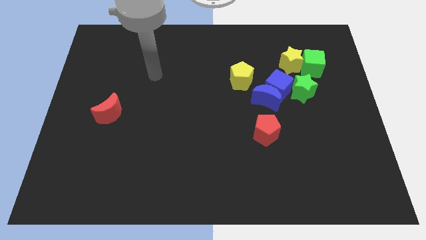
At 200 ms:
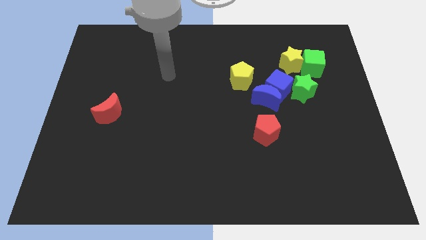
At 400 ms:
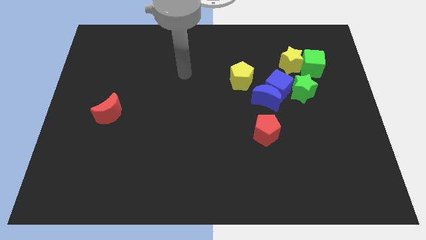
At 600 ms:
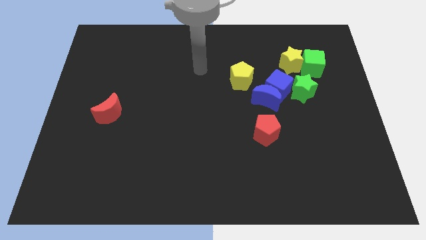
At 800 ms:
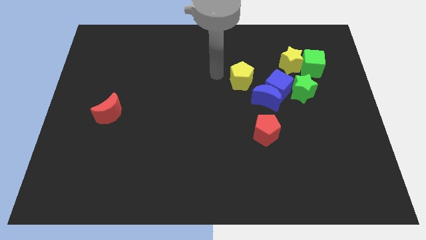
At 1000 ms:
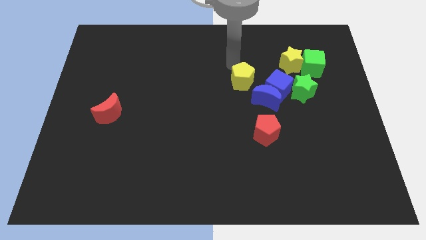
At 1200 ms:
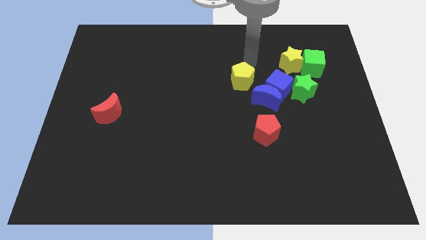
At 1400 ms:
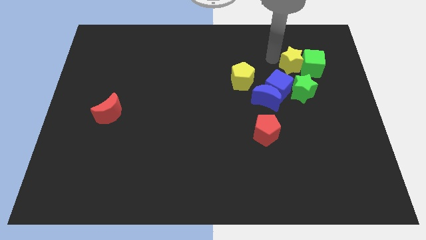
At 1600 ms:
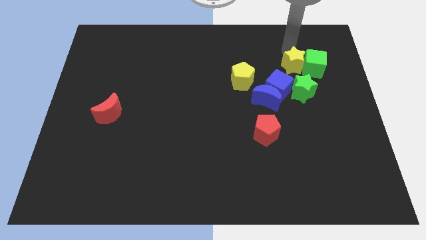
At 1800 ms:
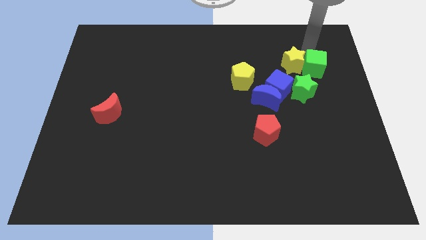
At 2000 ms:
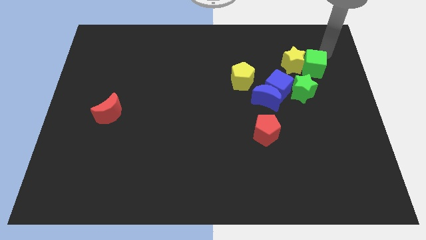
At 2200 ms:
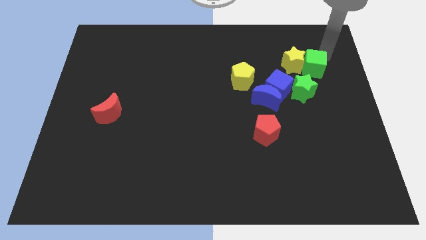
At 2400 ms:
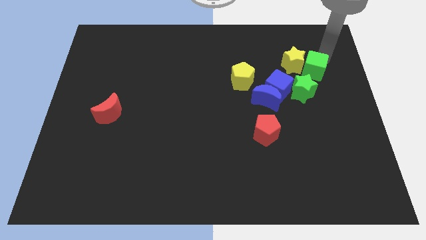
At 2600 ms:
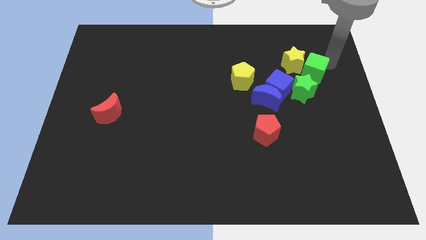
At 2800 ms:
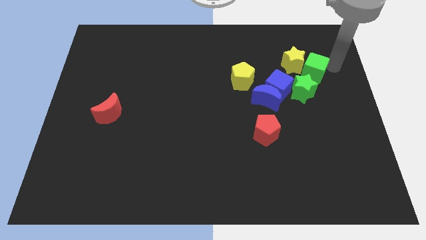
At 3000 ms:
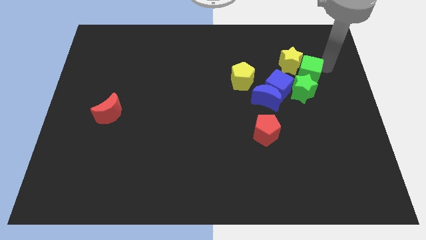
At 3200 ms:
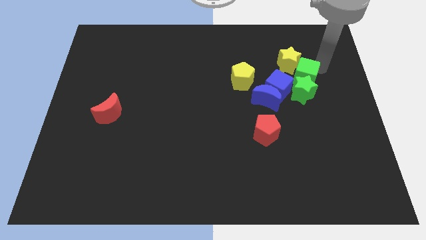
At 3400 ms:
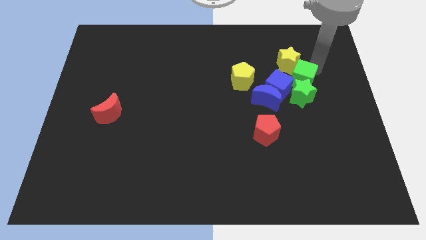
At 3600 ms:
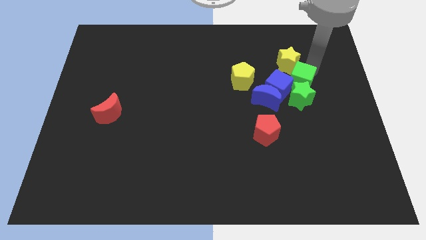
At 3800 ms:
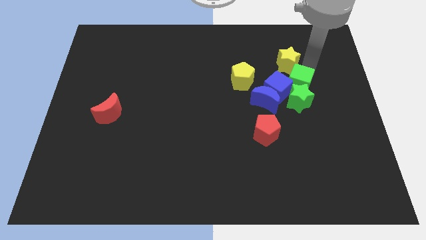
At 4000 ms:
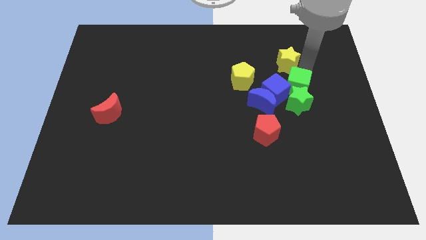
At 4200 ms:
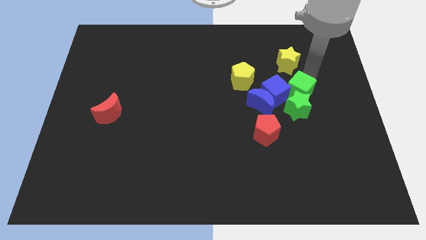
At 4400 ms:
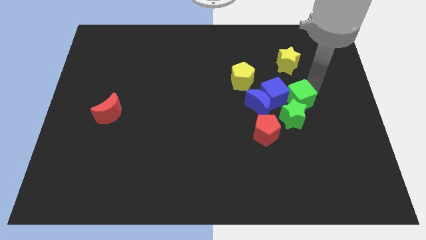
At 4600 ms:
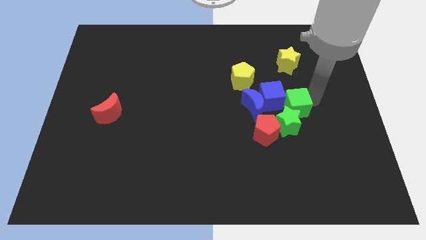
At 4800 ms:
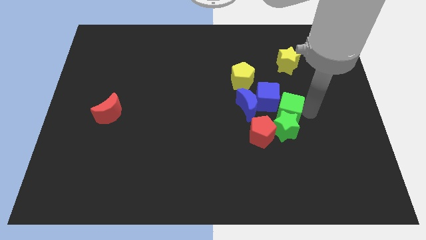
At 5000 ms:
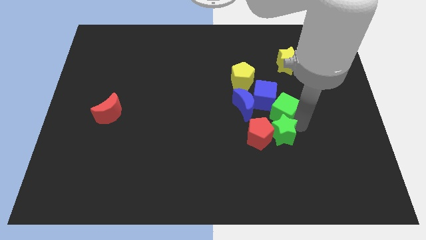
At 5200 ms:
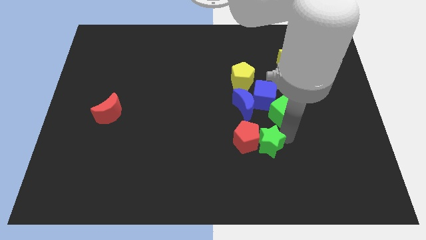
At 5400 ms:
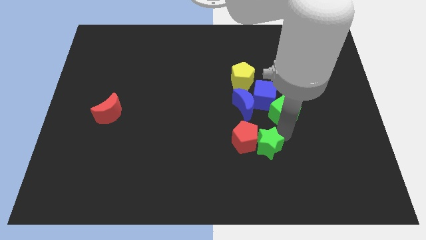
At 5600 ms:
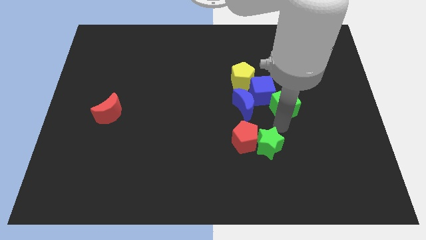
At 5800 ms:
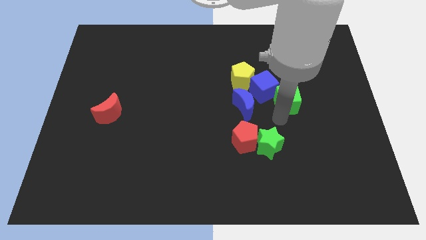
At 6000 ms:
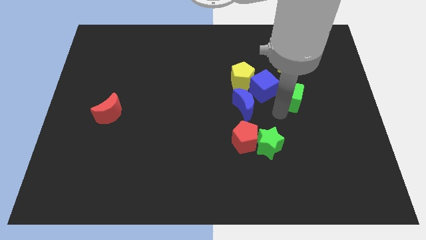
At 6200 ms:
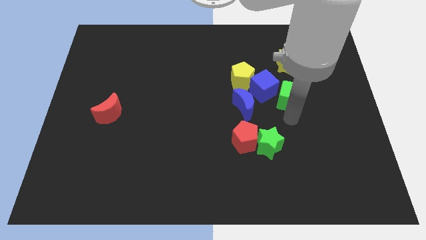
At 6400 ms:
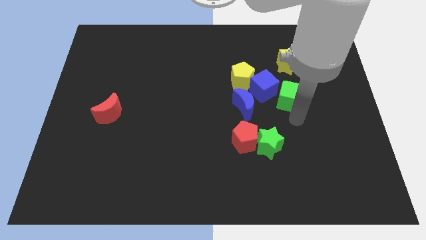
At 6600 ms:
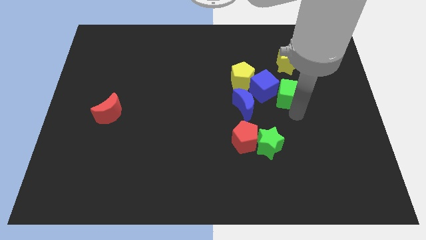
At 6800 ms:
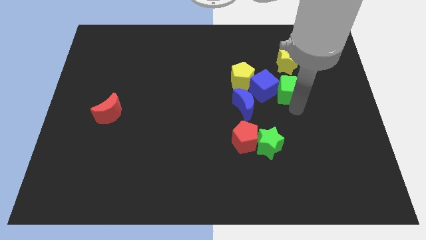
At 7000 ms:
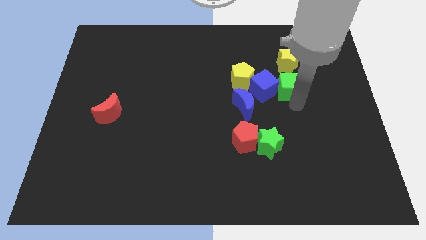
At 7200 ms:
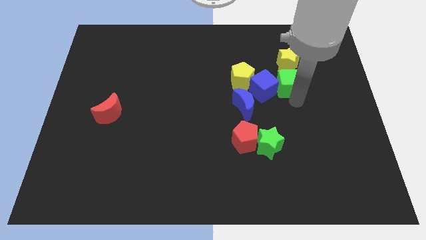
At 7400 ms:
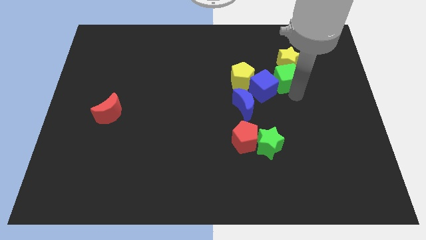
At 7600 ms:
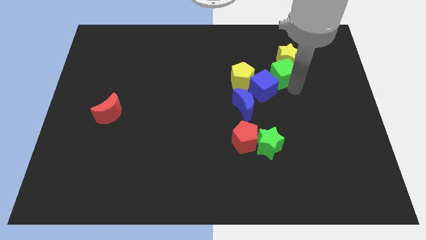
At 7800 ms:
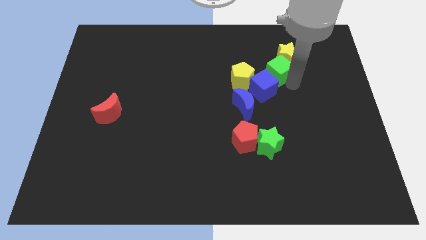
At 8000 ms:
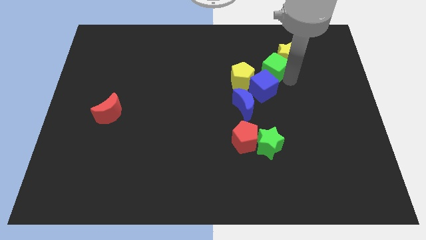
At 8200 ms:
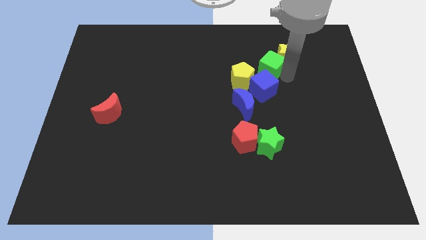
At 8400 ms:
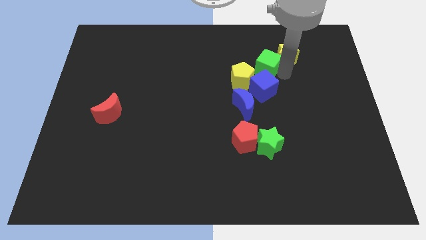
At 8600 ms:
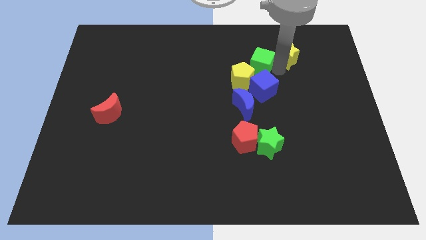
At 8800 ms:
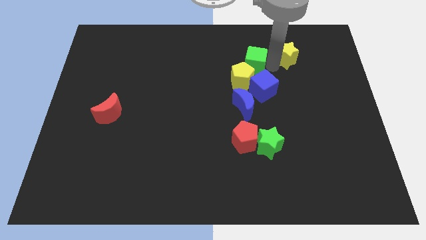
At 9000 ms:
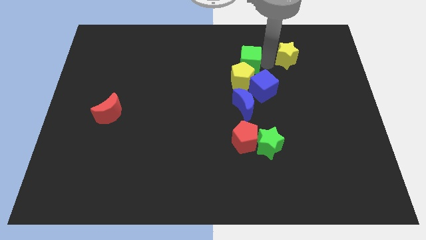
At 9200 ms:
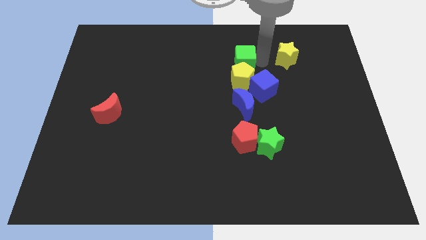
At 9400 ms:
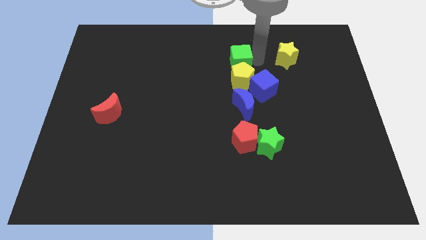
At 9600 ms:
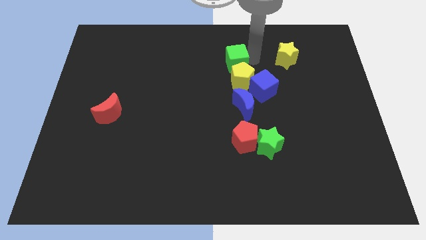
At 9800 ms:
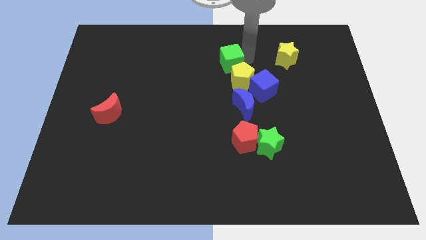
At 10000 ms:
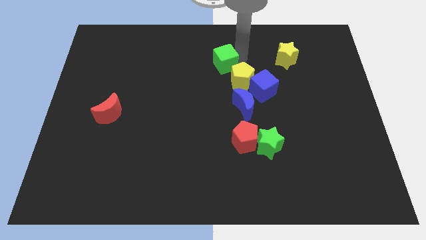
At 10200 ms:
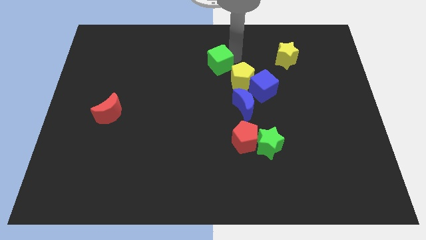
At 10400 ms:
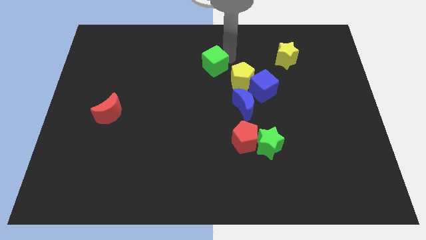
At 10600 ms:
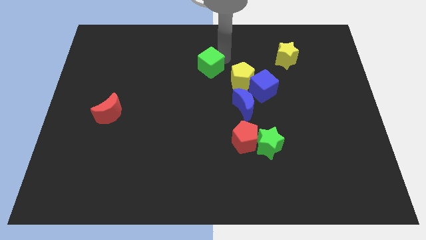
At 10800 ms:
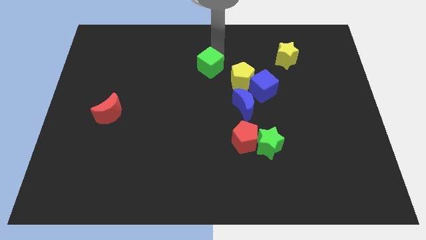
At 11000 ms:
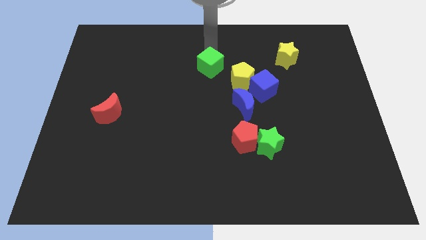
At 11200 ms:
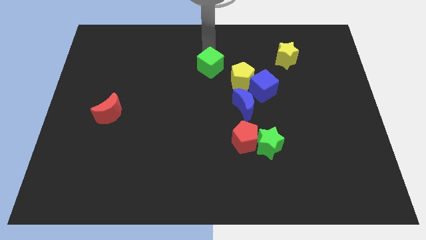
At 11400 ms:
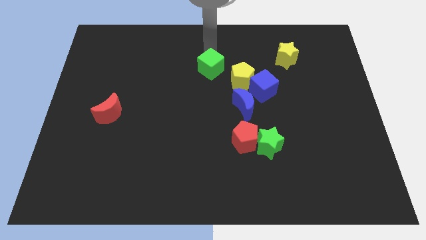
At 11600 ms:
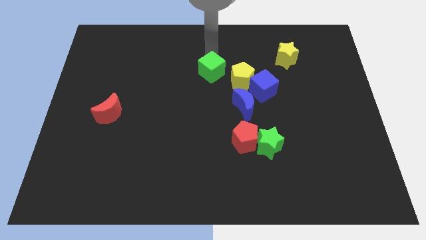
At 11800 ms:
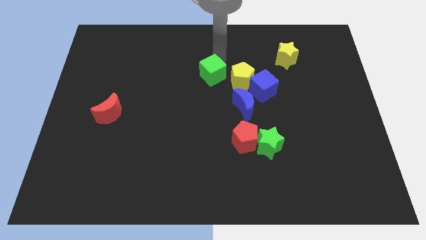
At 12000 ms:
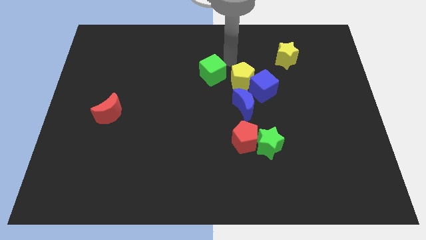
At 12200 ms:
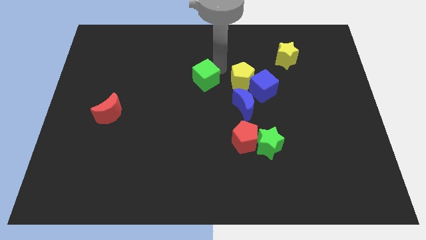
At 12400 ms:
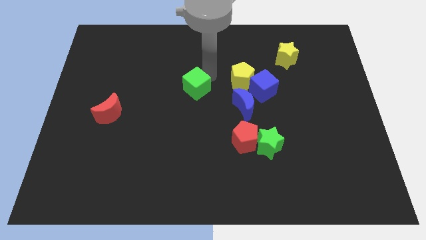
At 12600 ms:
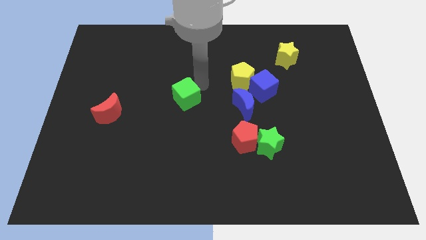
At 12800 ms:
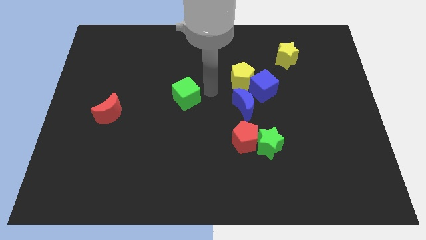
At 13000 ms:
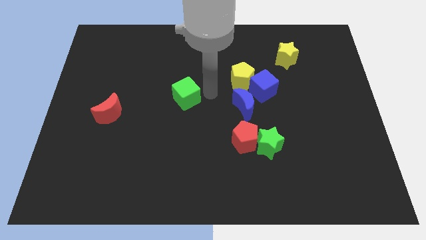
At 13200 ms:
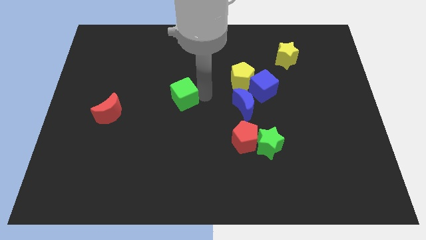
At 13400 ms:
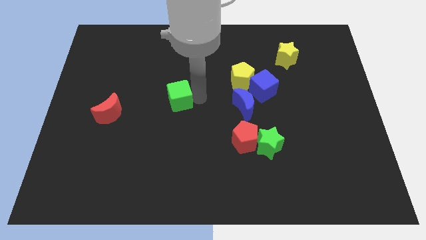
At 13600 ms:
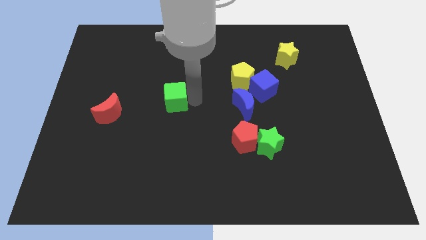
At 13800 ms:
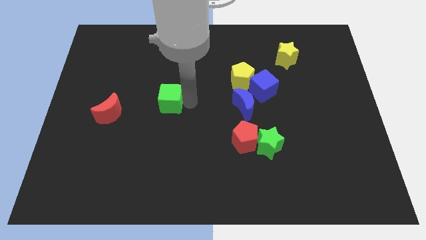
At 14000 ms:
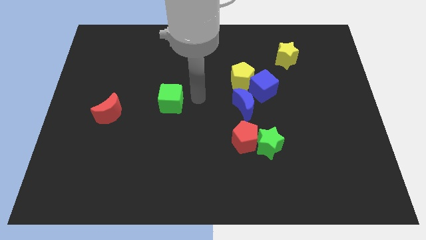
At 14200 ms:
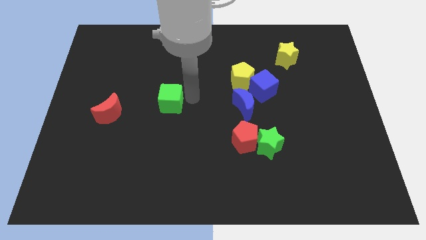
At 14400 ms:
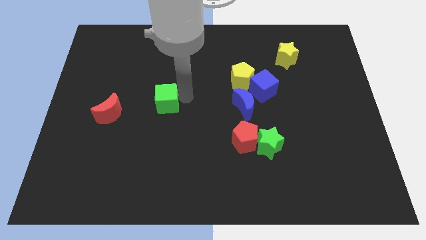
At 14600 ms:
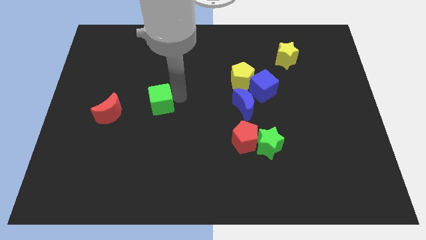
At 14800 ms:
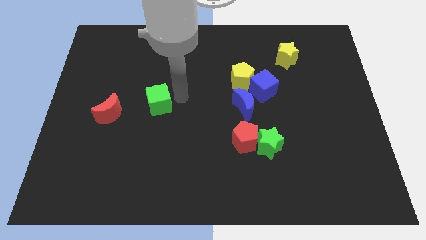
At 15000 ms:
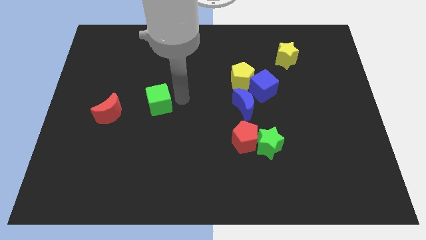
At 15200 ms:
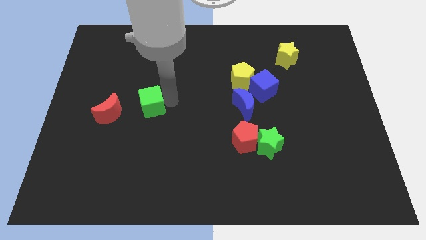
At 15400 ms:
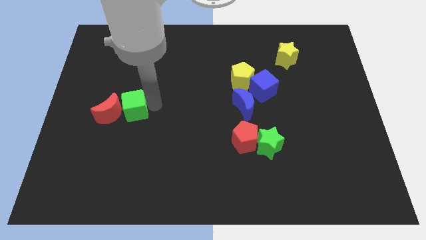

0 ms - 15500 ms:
push the green cube close to the red moon

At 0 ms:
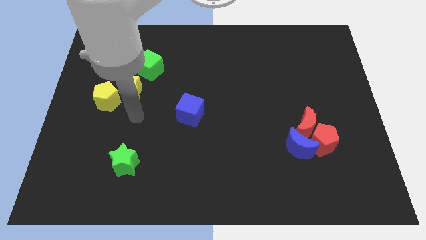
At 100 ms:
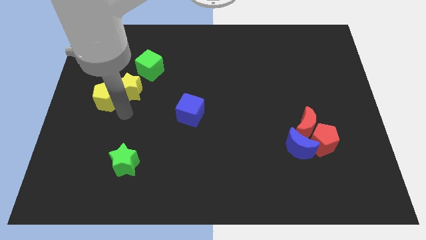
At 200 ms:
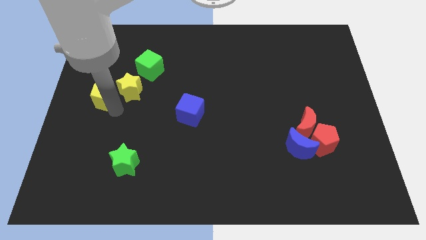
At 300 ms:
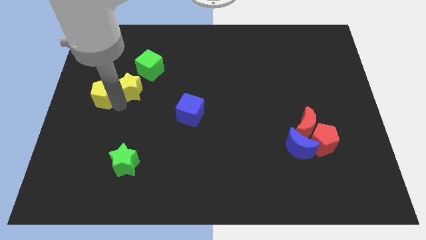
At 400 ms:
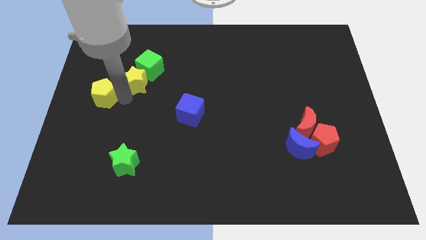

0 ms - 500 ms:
move the yellow star next to the green cube
